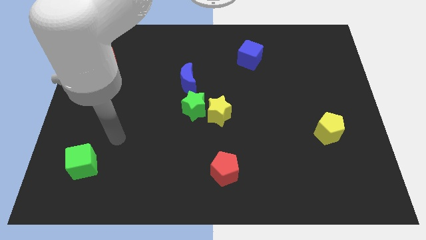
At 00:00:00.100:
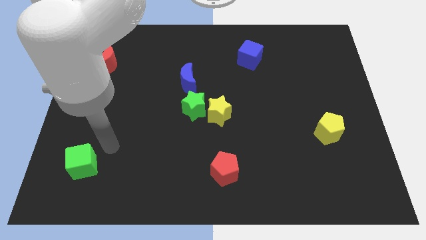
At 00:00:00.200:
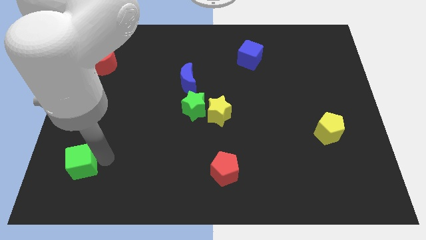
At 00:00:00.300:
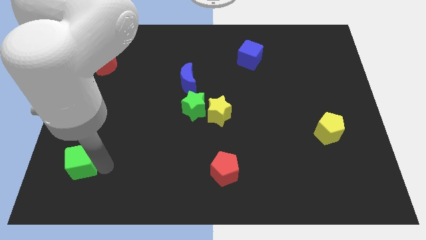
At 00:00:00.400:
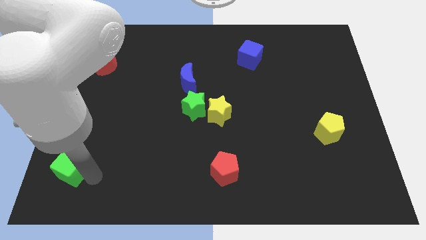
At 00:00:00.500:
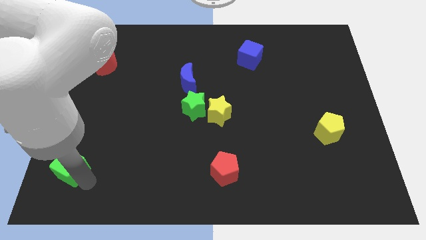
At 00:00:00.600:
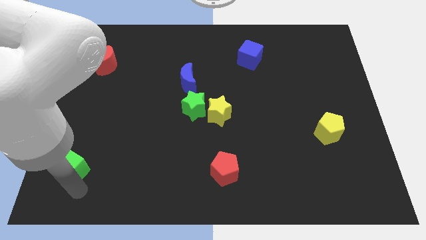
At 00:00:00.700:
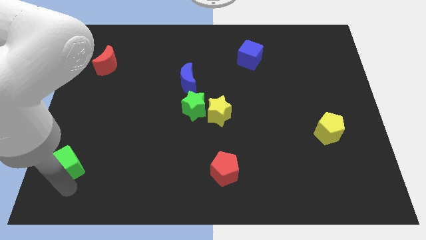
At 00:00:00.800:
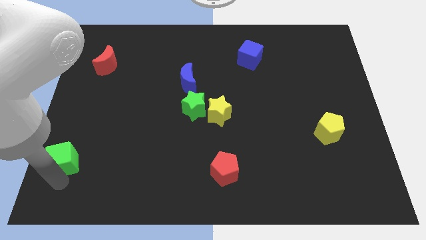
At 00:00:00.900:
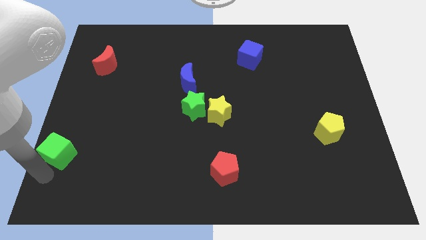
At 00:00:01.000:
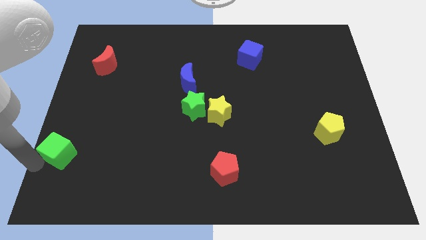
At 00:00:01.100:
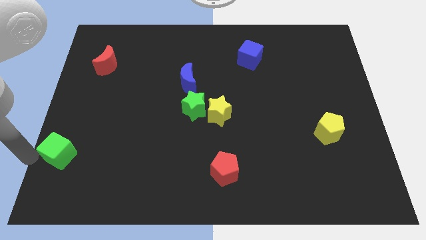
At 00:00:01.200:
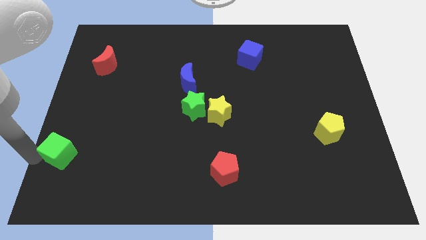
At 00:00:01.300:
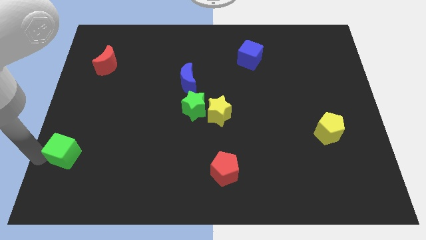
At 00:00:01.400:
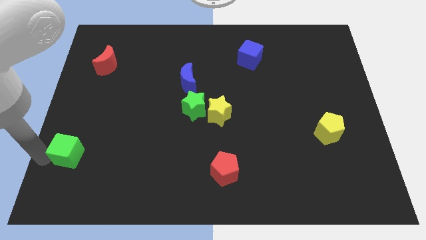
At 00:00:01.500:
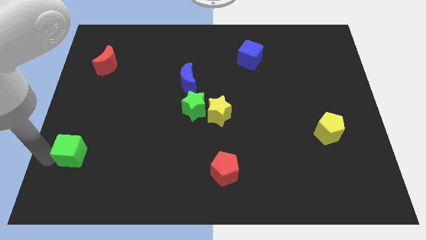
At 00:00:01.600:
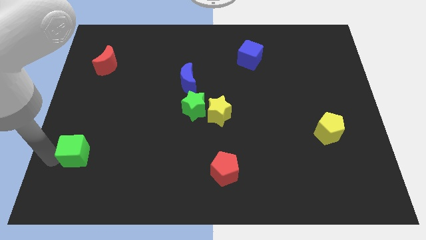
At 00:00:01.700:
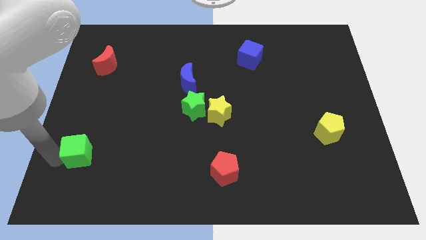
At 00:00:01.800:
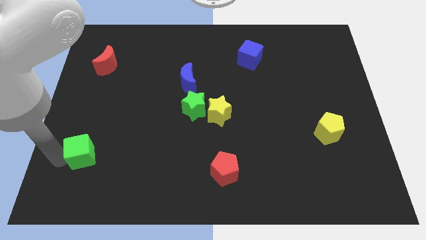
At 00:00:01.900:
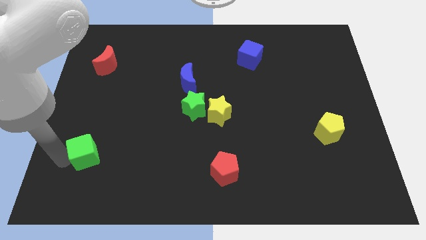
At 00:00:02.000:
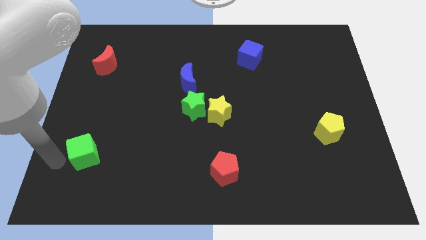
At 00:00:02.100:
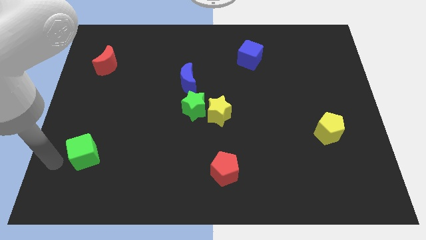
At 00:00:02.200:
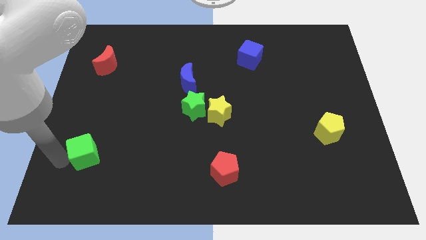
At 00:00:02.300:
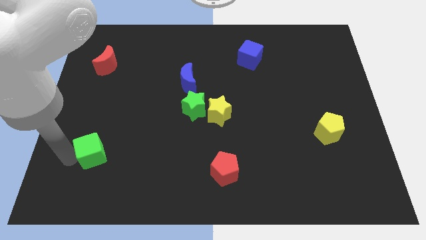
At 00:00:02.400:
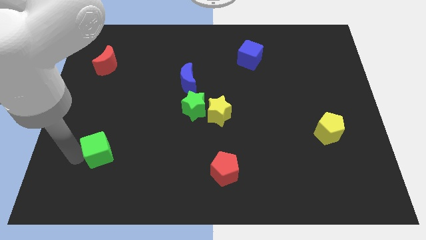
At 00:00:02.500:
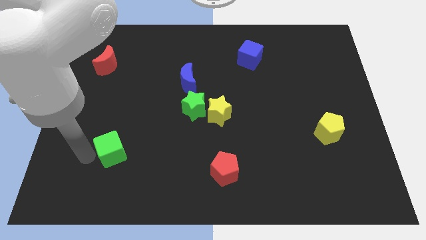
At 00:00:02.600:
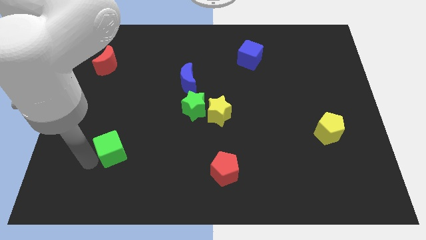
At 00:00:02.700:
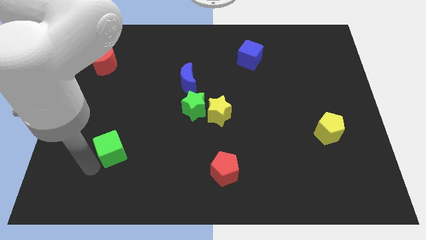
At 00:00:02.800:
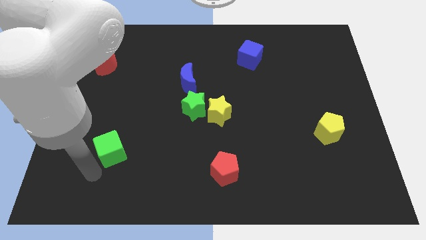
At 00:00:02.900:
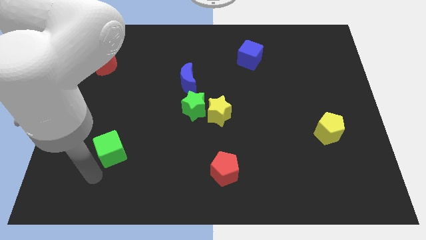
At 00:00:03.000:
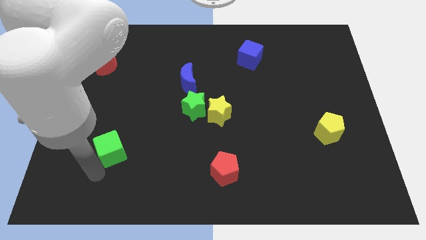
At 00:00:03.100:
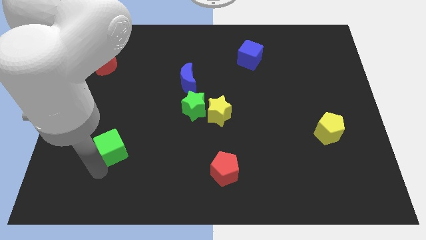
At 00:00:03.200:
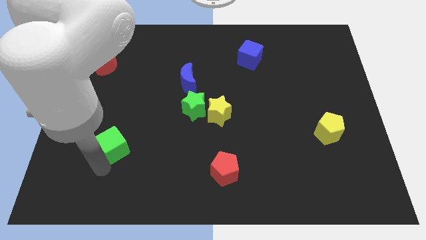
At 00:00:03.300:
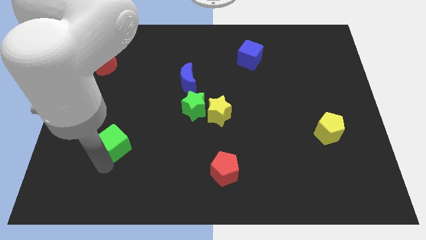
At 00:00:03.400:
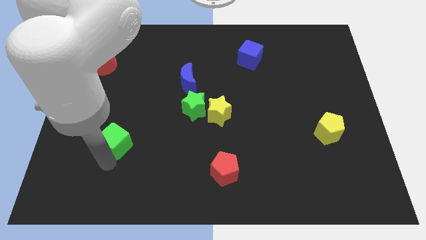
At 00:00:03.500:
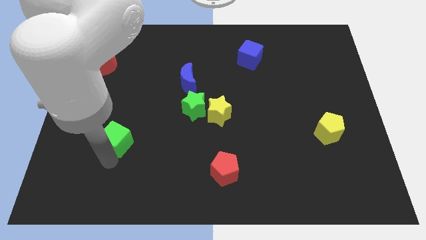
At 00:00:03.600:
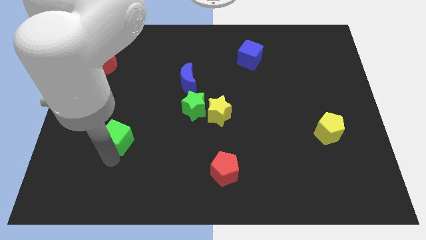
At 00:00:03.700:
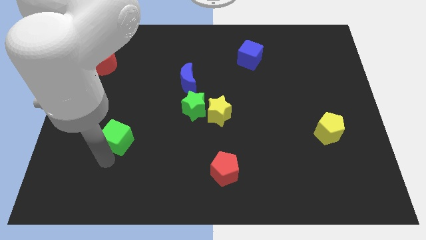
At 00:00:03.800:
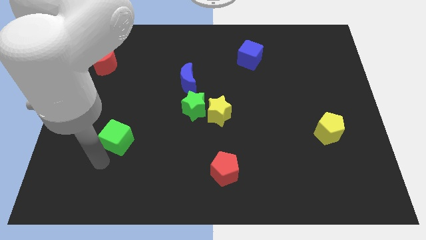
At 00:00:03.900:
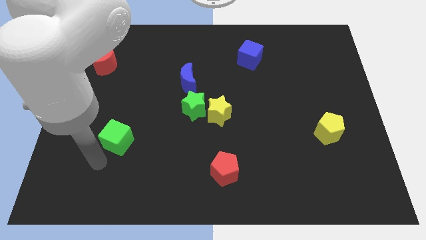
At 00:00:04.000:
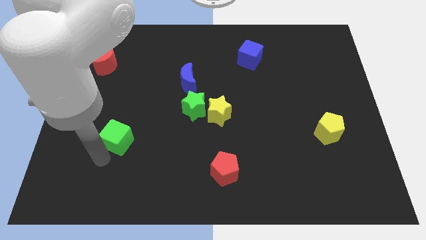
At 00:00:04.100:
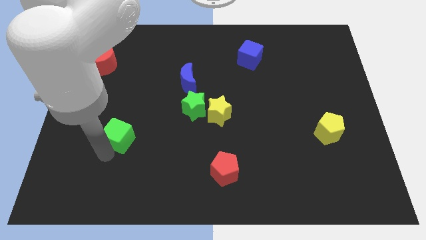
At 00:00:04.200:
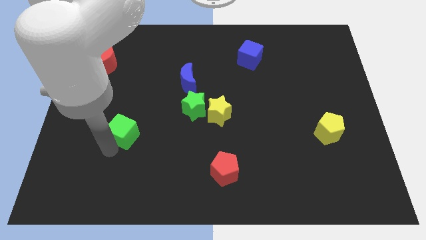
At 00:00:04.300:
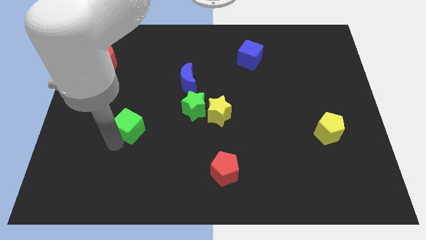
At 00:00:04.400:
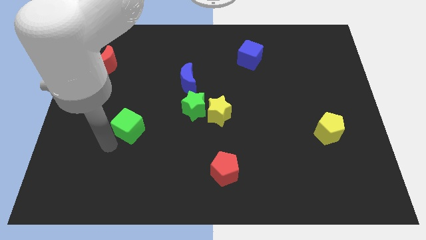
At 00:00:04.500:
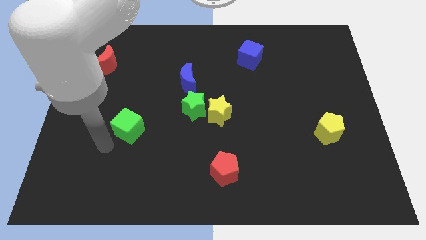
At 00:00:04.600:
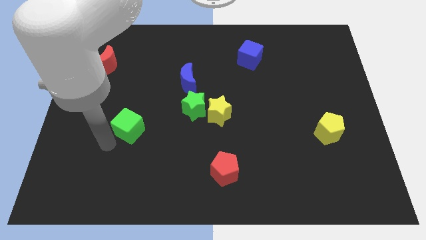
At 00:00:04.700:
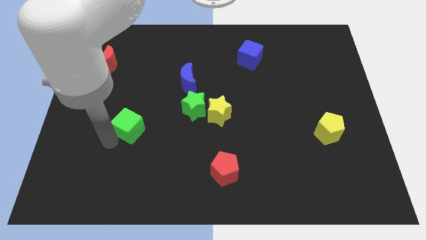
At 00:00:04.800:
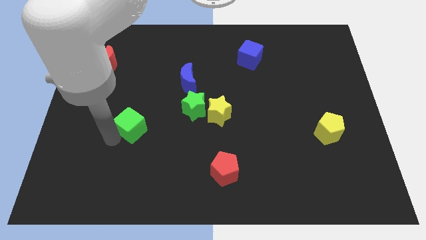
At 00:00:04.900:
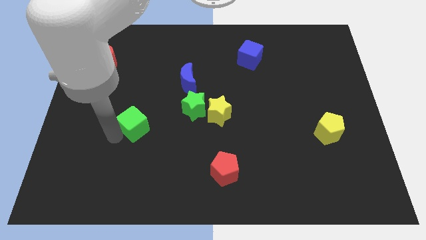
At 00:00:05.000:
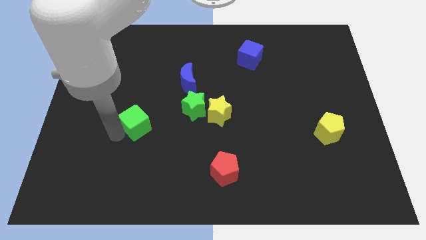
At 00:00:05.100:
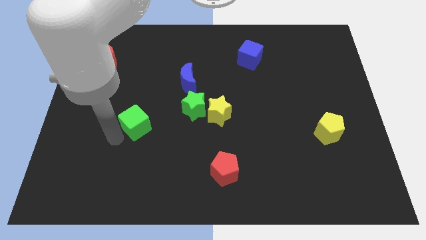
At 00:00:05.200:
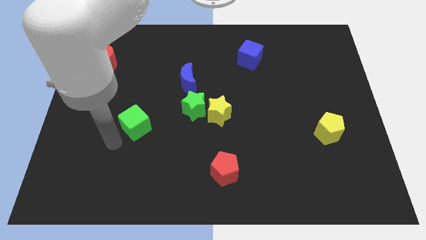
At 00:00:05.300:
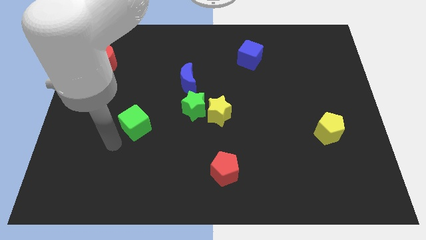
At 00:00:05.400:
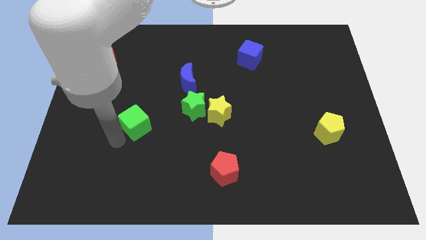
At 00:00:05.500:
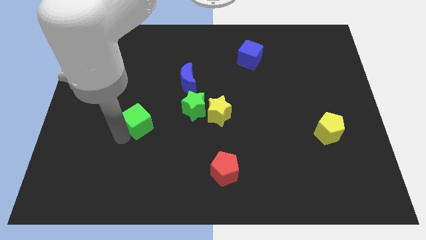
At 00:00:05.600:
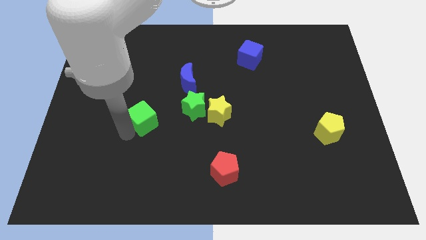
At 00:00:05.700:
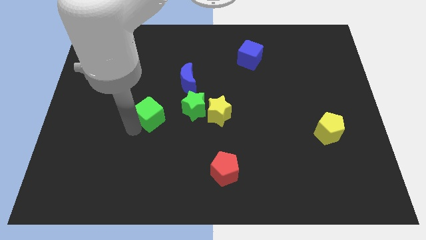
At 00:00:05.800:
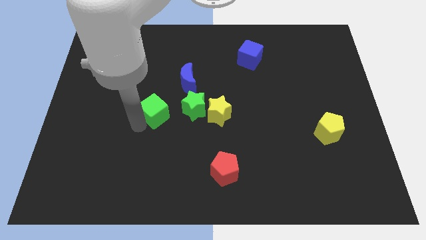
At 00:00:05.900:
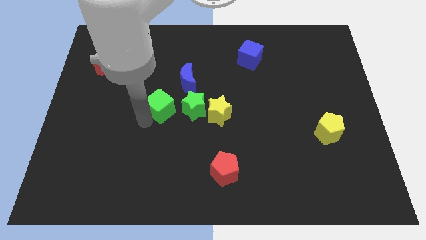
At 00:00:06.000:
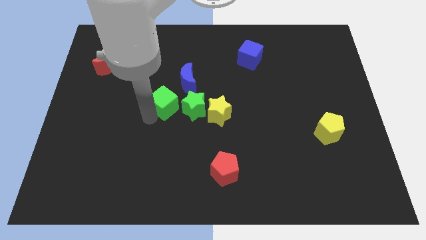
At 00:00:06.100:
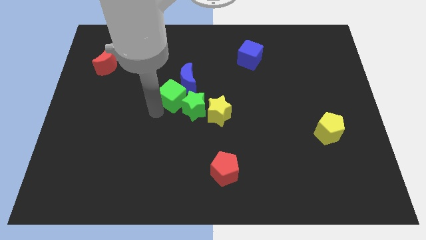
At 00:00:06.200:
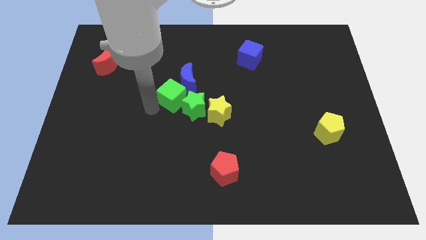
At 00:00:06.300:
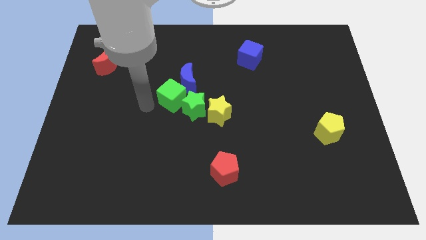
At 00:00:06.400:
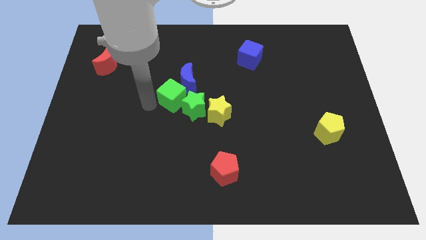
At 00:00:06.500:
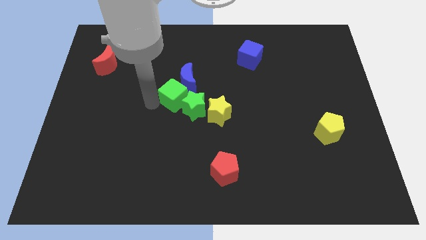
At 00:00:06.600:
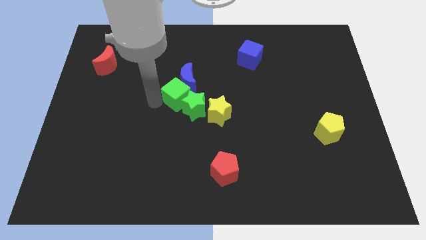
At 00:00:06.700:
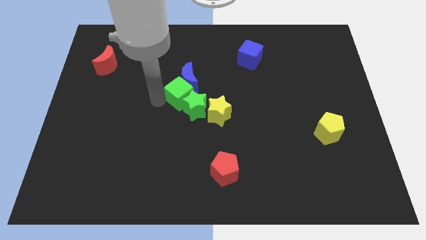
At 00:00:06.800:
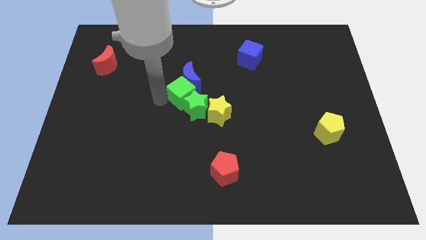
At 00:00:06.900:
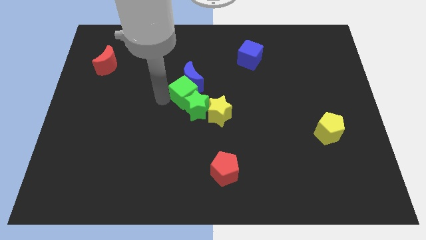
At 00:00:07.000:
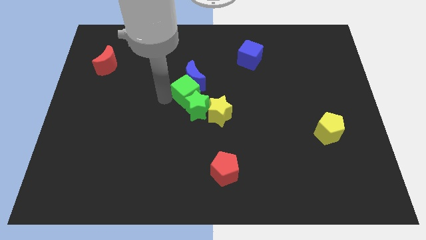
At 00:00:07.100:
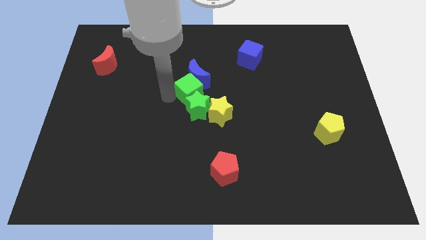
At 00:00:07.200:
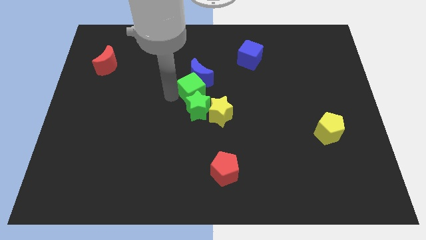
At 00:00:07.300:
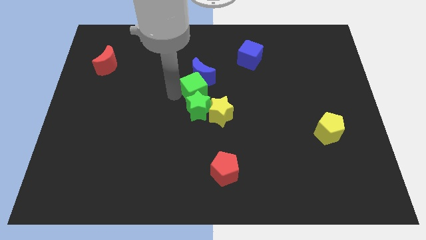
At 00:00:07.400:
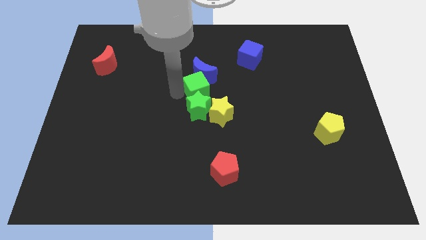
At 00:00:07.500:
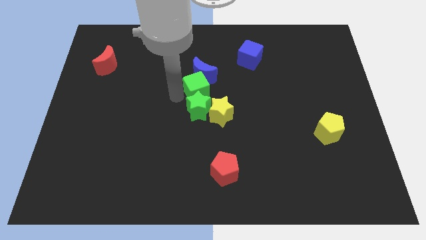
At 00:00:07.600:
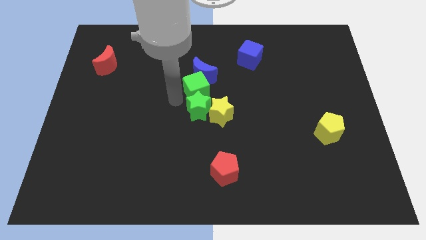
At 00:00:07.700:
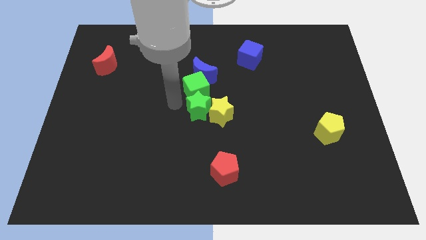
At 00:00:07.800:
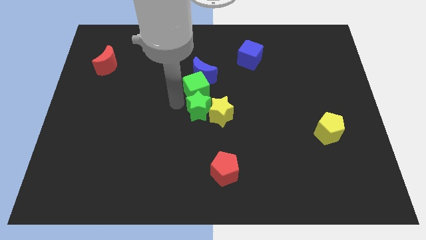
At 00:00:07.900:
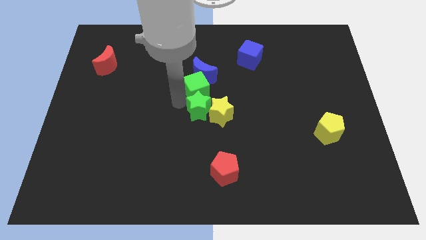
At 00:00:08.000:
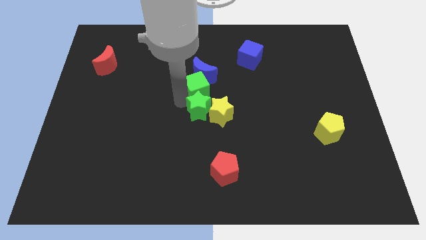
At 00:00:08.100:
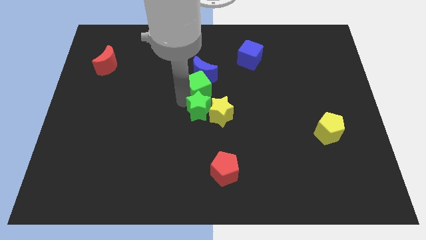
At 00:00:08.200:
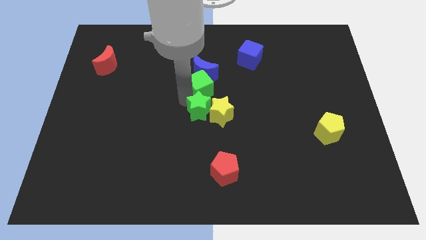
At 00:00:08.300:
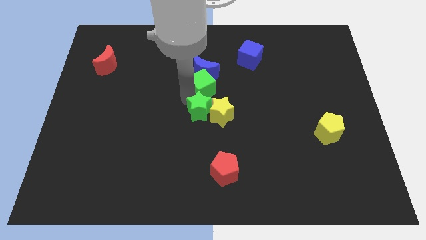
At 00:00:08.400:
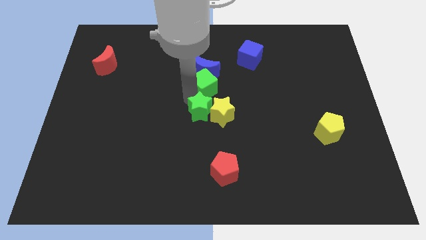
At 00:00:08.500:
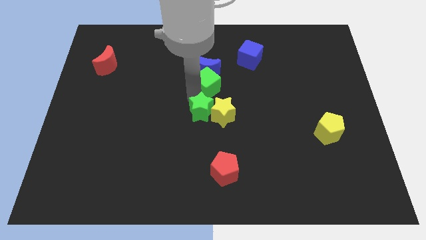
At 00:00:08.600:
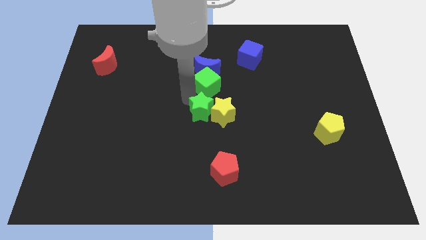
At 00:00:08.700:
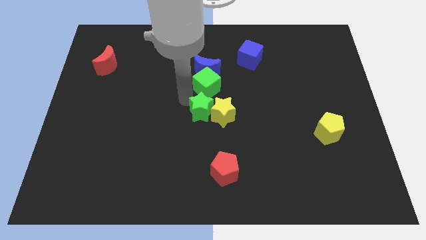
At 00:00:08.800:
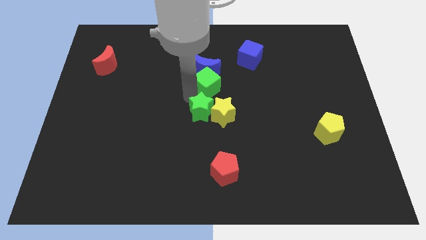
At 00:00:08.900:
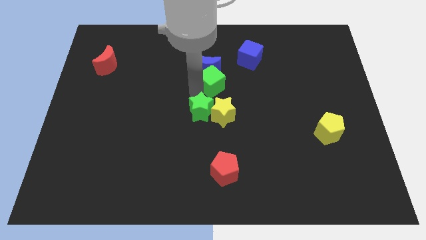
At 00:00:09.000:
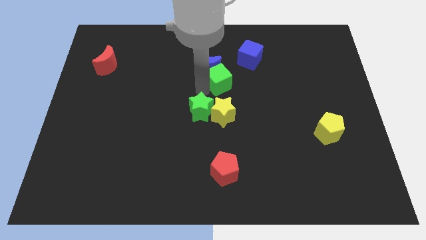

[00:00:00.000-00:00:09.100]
slide the green cube to the bottom left of the blue cube
